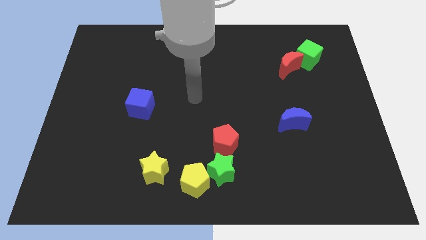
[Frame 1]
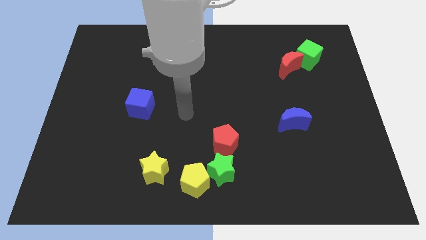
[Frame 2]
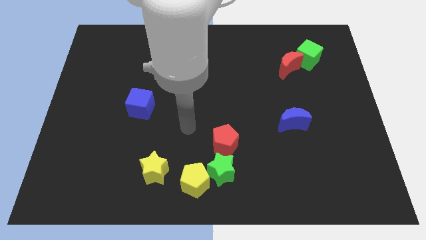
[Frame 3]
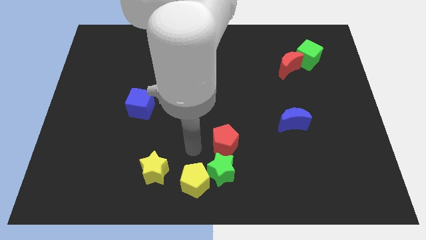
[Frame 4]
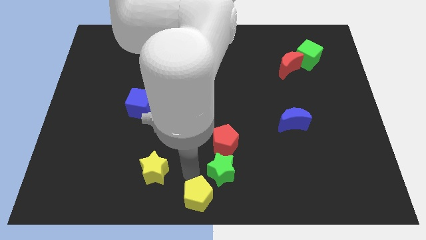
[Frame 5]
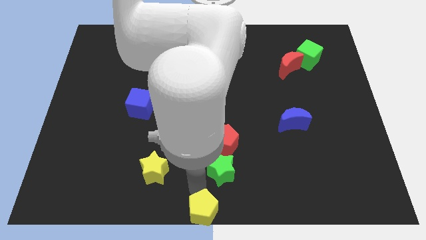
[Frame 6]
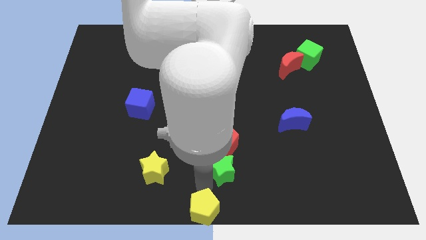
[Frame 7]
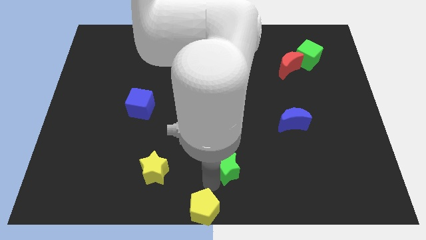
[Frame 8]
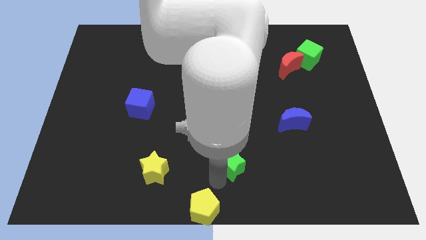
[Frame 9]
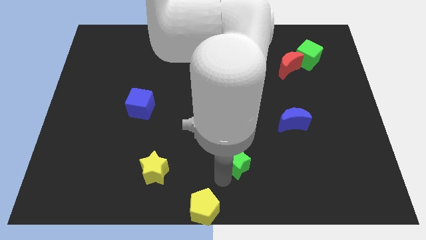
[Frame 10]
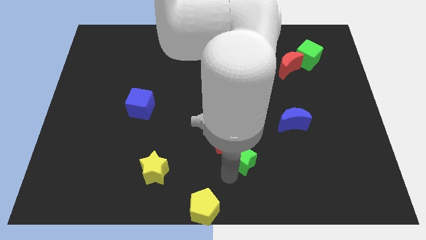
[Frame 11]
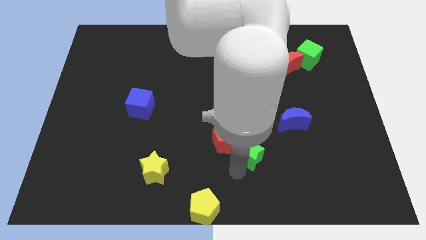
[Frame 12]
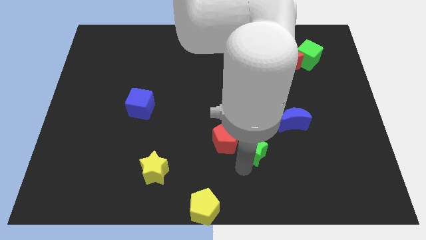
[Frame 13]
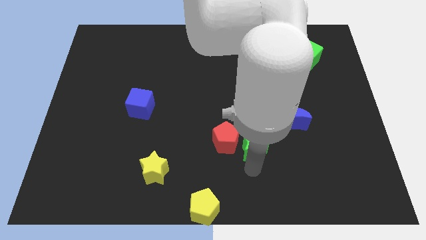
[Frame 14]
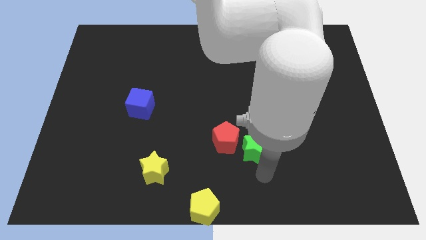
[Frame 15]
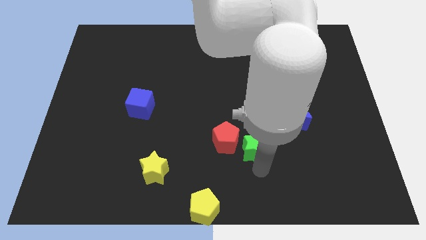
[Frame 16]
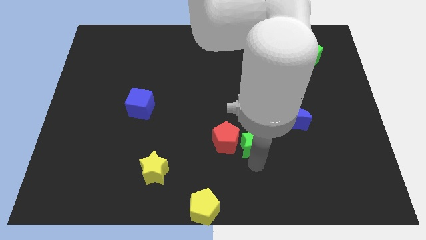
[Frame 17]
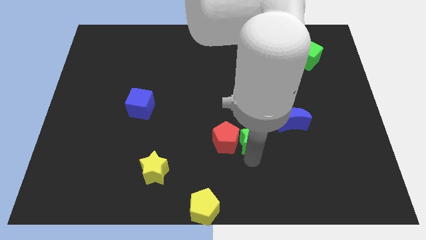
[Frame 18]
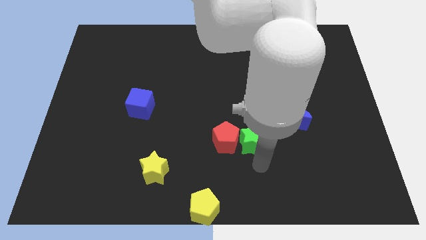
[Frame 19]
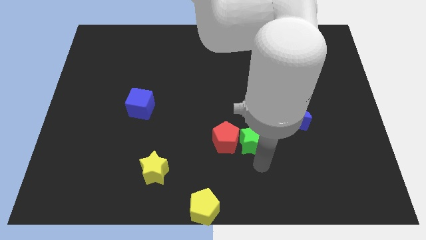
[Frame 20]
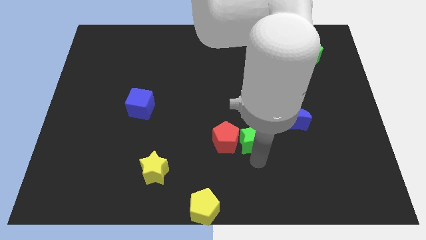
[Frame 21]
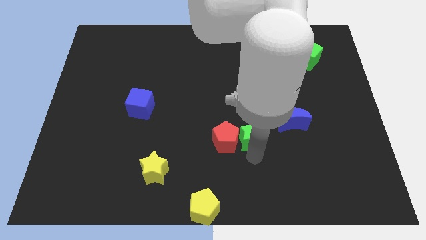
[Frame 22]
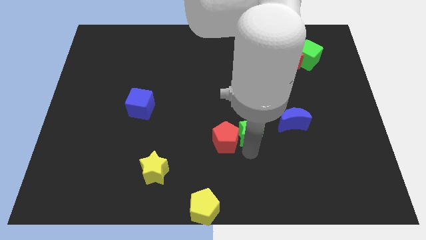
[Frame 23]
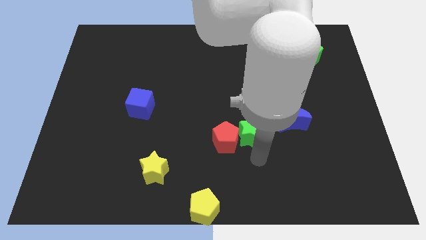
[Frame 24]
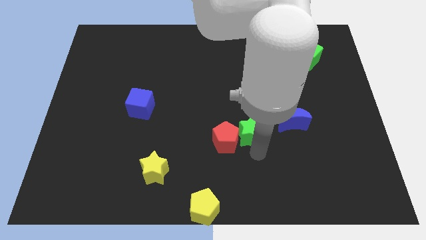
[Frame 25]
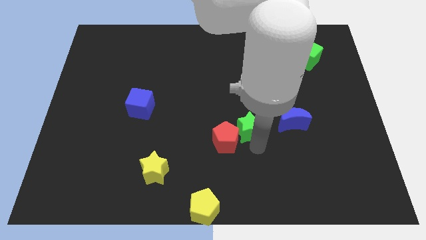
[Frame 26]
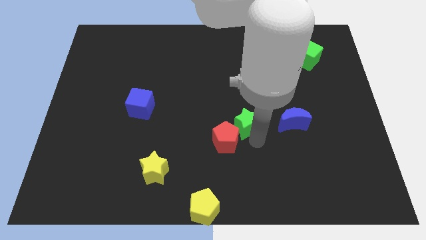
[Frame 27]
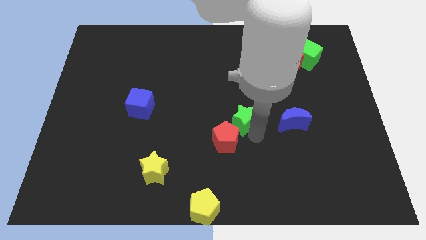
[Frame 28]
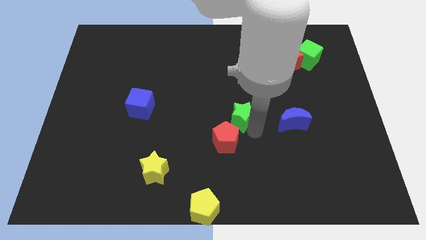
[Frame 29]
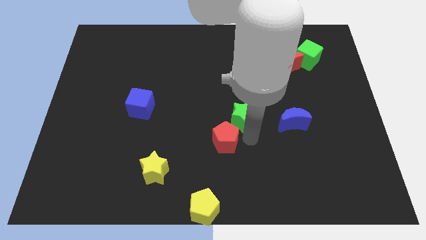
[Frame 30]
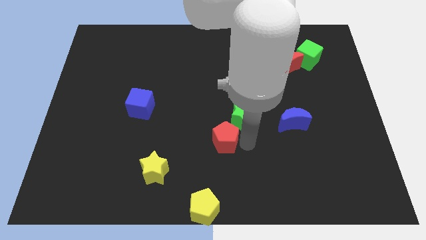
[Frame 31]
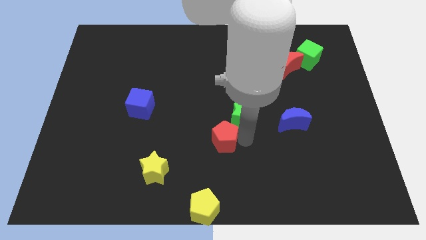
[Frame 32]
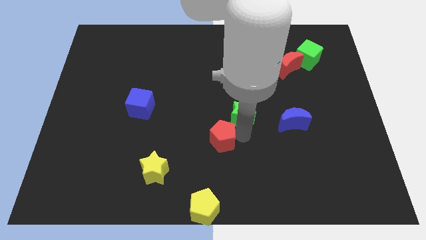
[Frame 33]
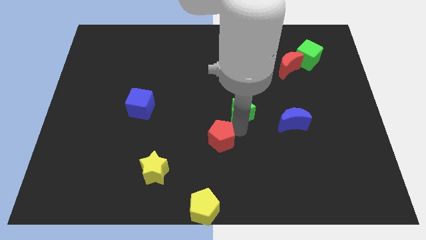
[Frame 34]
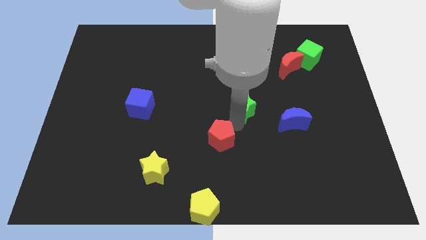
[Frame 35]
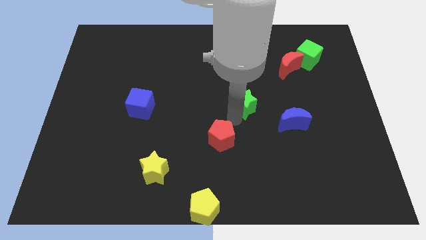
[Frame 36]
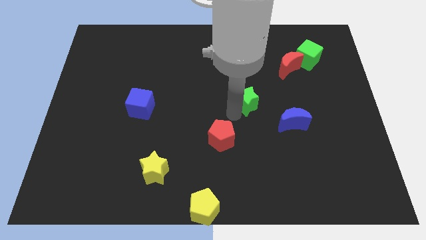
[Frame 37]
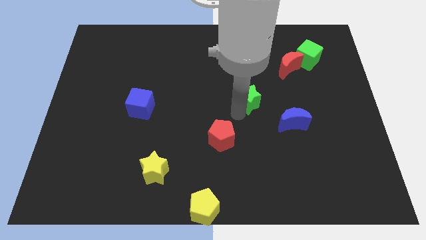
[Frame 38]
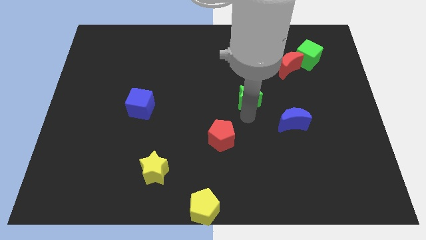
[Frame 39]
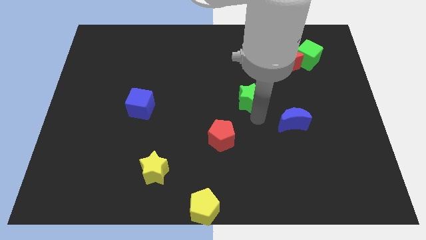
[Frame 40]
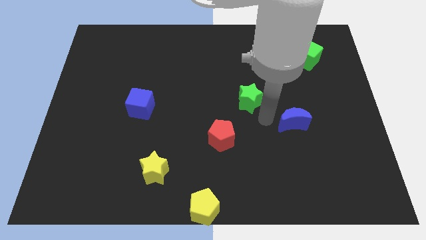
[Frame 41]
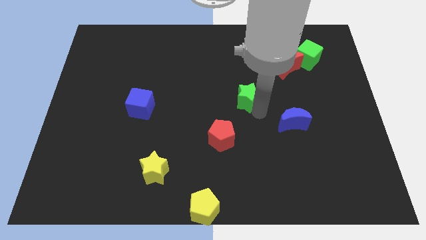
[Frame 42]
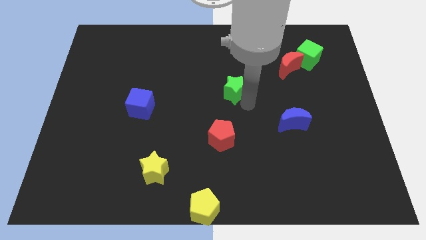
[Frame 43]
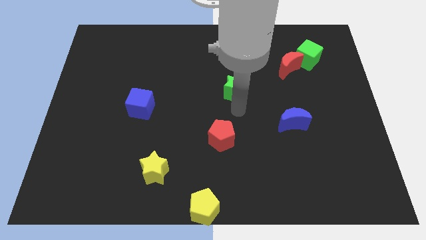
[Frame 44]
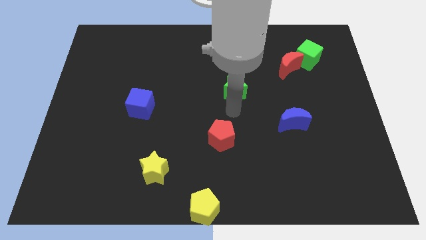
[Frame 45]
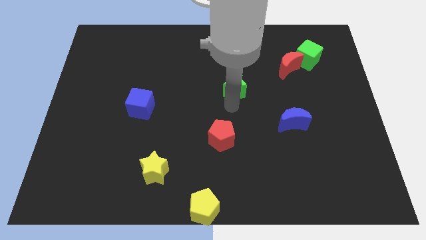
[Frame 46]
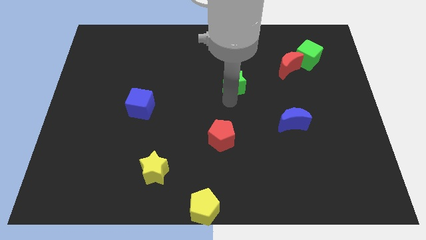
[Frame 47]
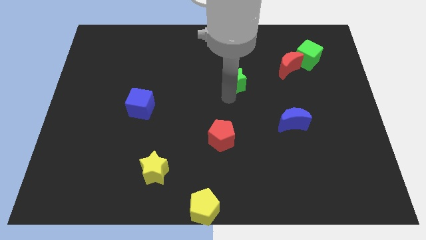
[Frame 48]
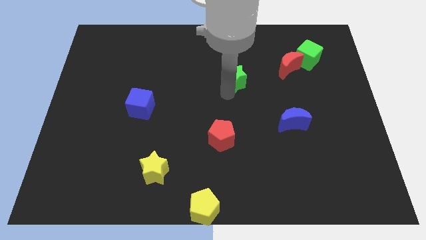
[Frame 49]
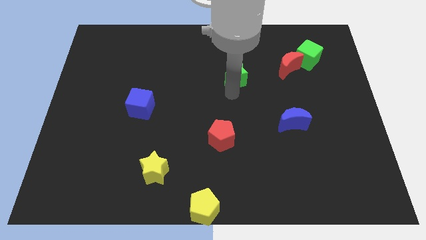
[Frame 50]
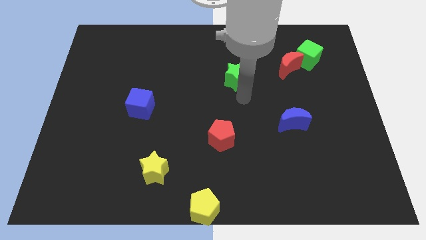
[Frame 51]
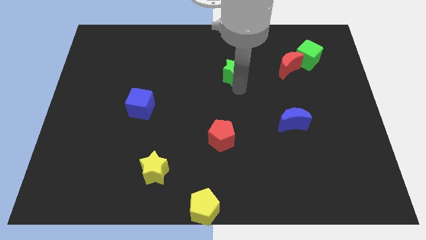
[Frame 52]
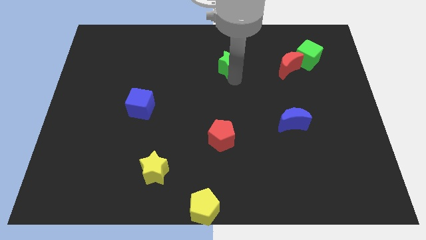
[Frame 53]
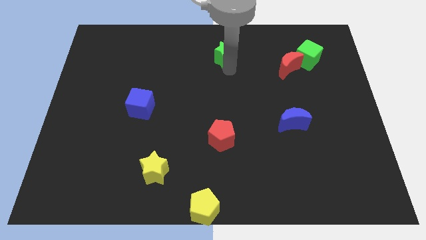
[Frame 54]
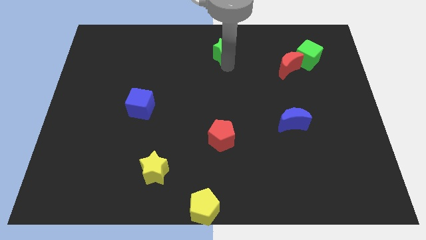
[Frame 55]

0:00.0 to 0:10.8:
put the green star to the top

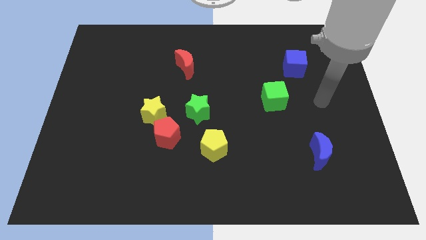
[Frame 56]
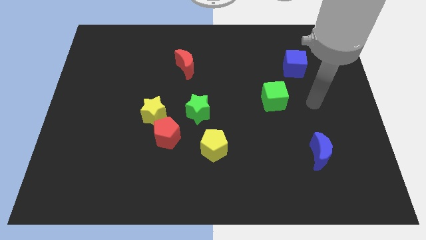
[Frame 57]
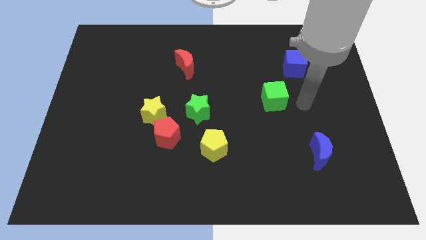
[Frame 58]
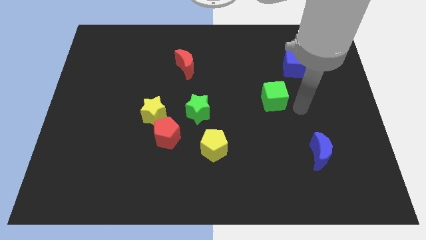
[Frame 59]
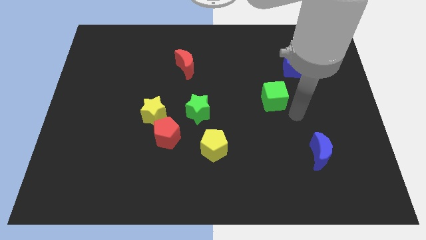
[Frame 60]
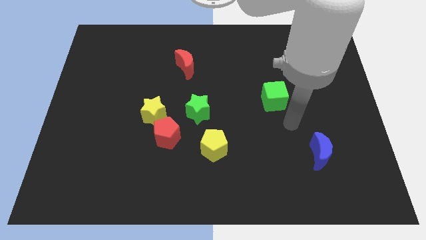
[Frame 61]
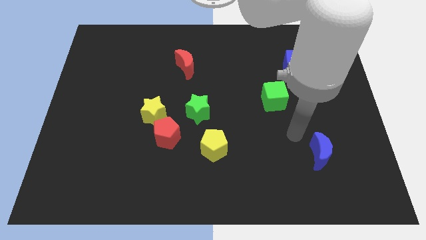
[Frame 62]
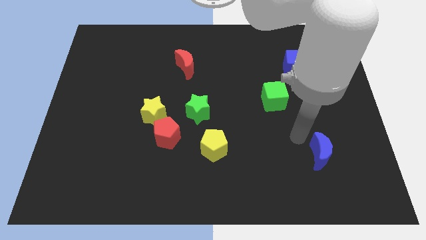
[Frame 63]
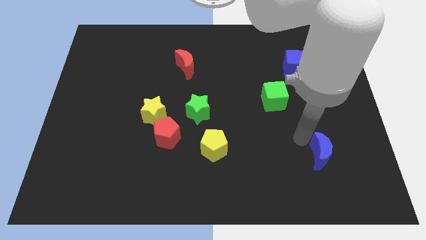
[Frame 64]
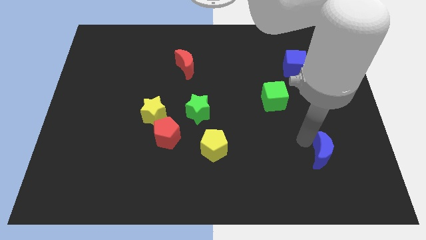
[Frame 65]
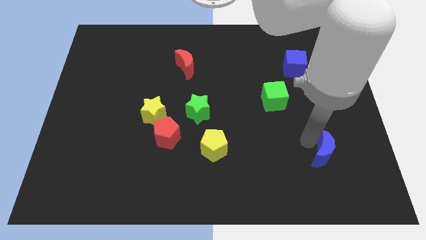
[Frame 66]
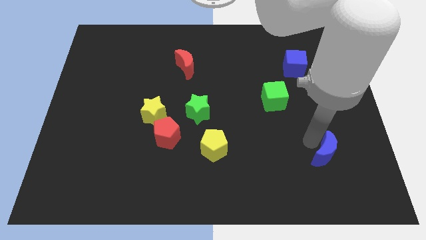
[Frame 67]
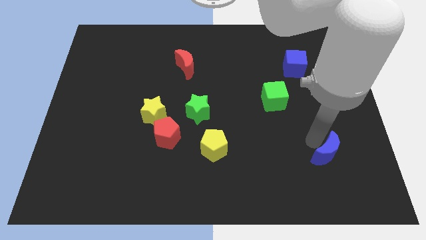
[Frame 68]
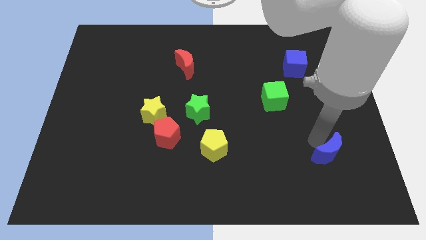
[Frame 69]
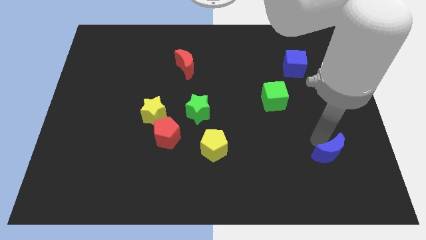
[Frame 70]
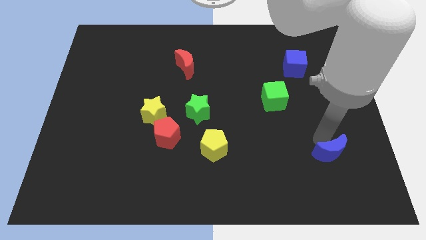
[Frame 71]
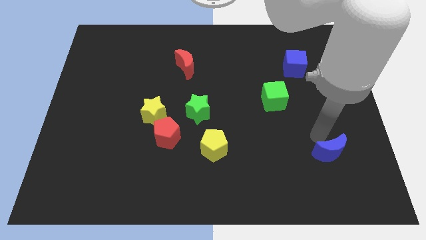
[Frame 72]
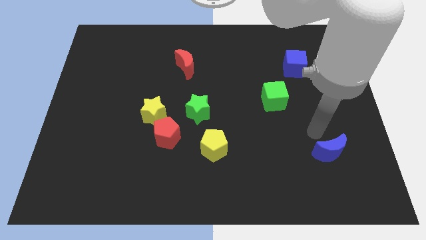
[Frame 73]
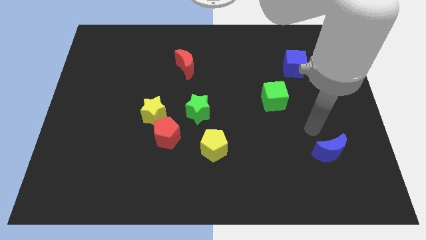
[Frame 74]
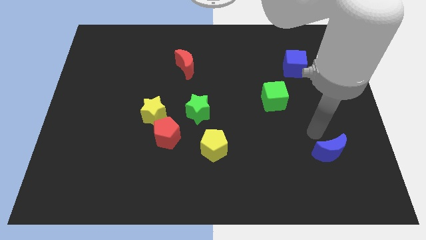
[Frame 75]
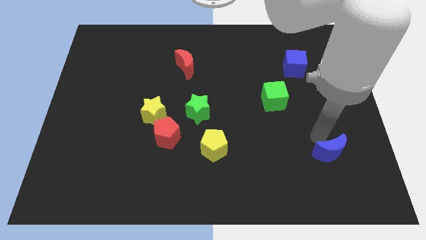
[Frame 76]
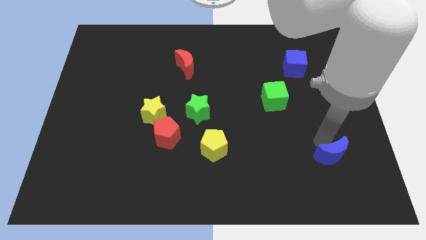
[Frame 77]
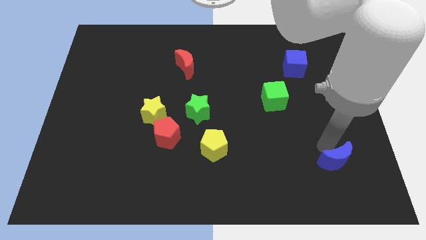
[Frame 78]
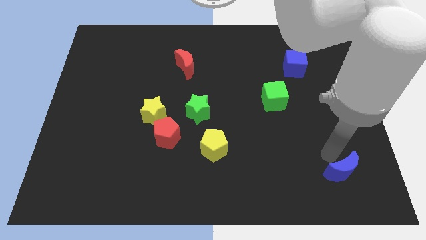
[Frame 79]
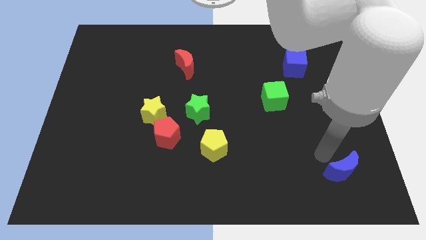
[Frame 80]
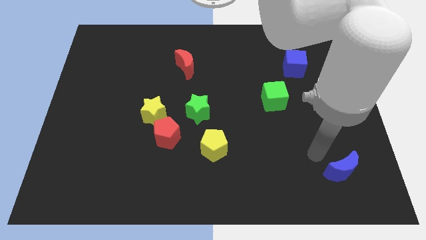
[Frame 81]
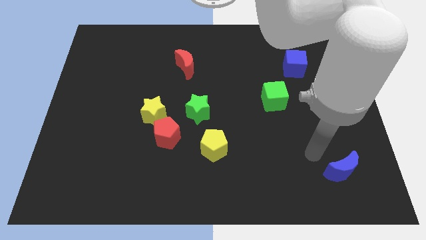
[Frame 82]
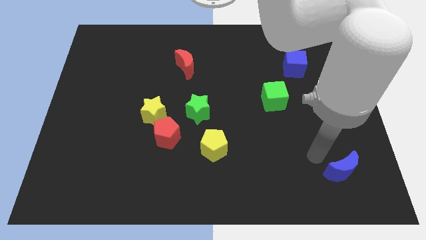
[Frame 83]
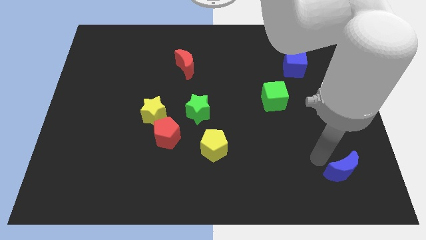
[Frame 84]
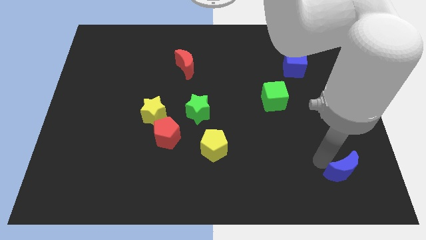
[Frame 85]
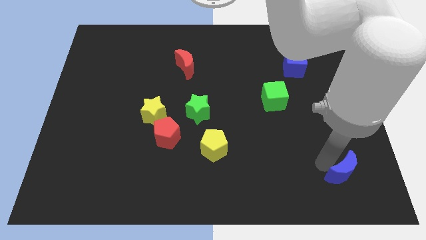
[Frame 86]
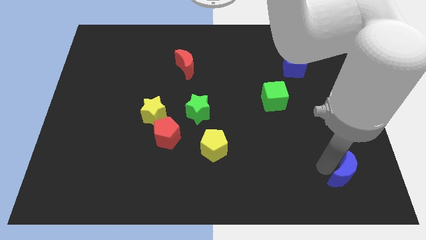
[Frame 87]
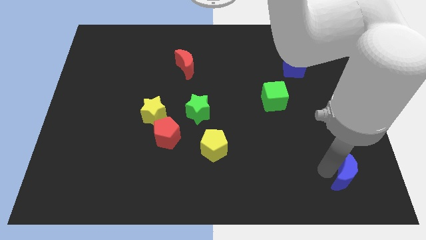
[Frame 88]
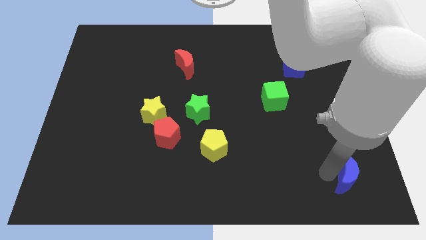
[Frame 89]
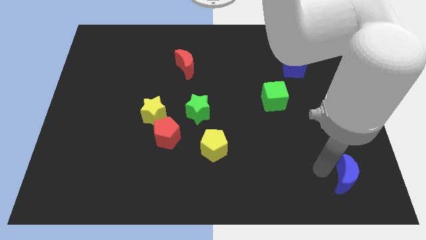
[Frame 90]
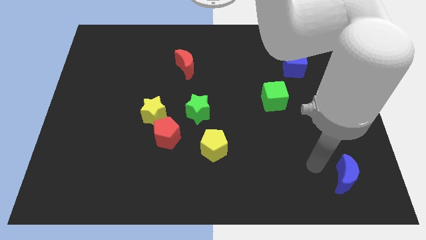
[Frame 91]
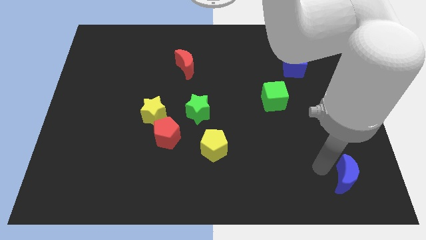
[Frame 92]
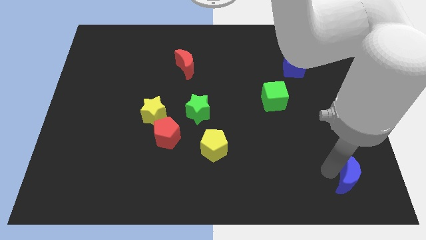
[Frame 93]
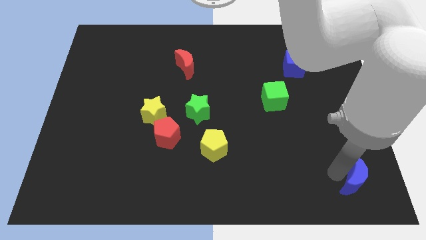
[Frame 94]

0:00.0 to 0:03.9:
slide the blue moon to the bottom right of the board
